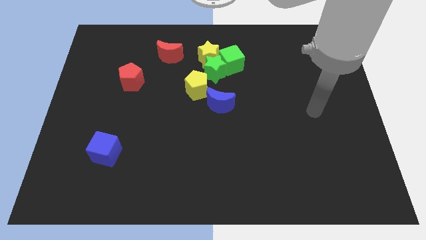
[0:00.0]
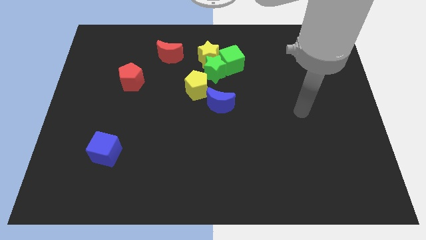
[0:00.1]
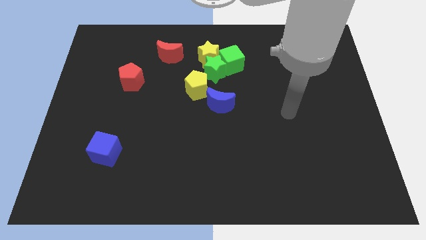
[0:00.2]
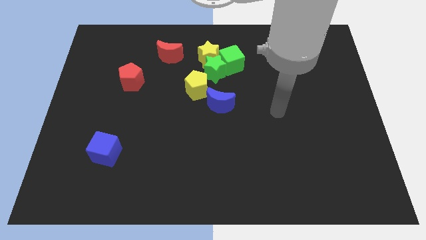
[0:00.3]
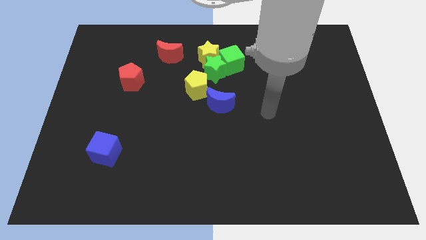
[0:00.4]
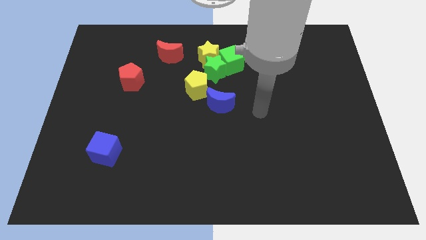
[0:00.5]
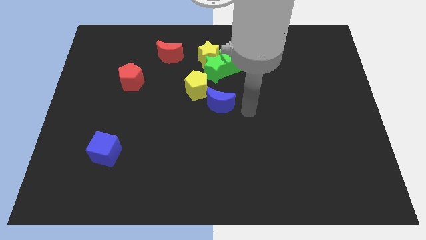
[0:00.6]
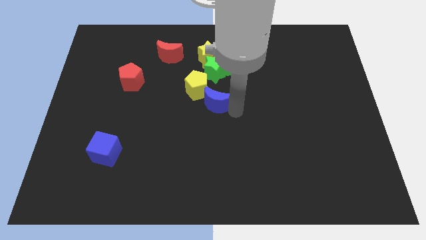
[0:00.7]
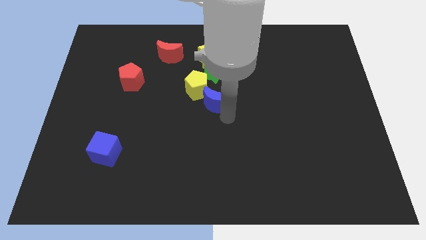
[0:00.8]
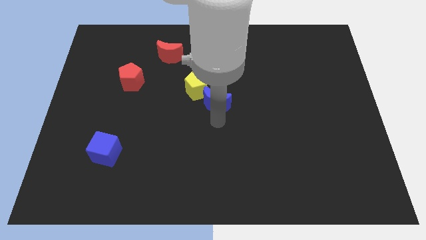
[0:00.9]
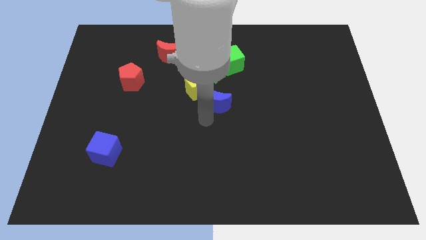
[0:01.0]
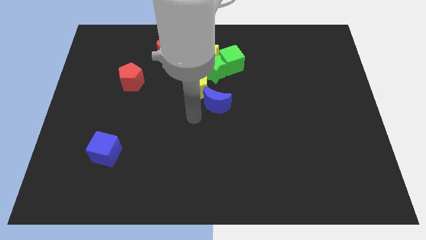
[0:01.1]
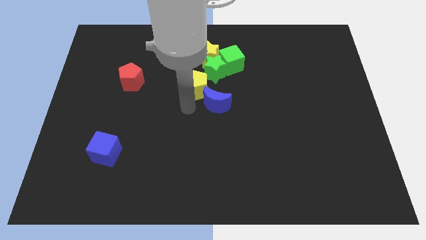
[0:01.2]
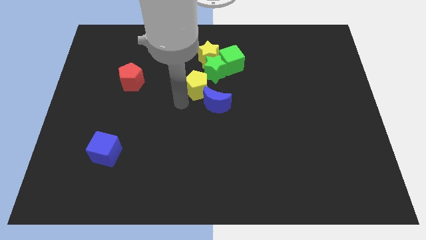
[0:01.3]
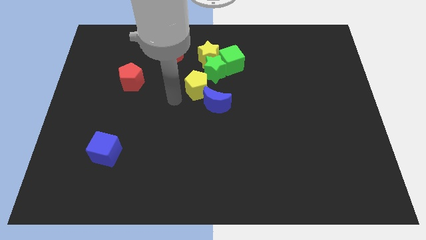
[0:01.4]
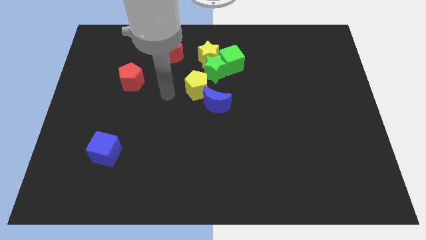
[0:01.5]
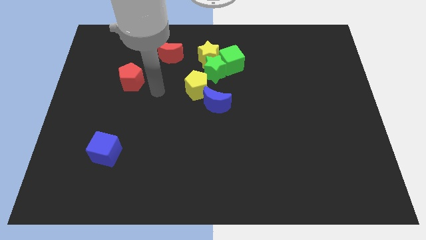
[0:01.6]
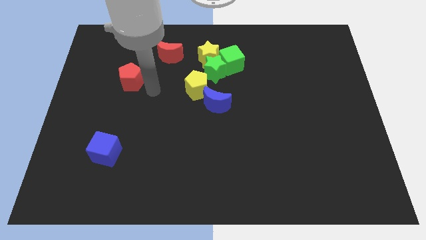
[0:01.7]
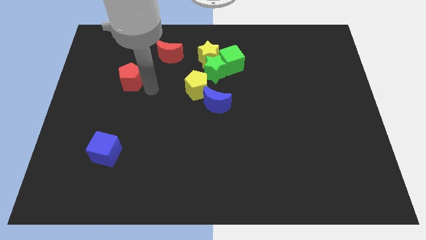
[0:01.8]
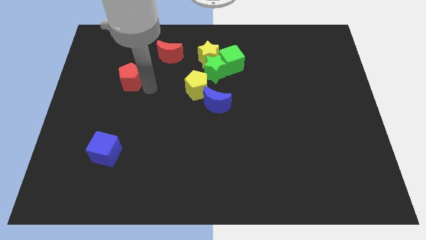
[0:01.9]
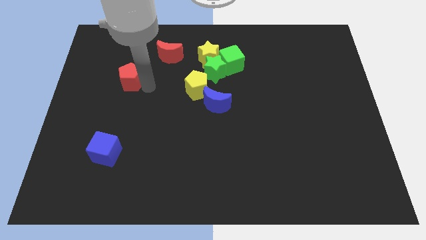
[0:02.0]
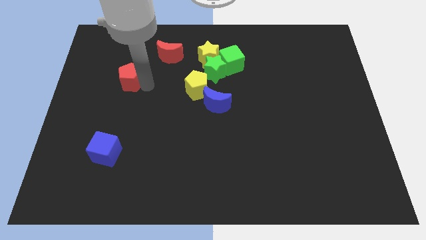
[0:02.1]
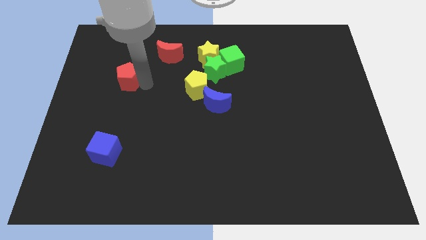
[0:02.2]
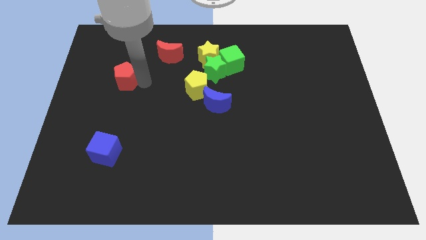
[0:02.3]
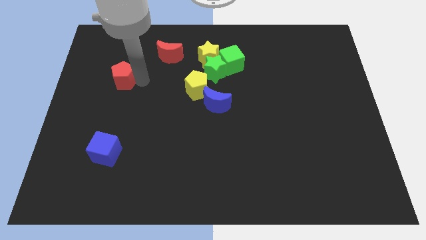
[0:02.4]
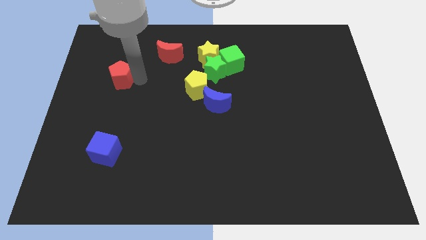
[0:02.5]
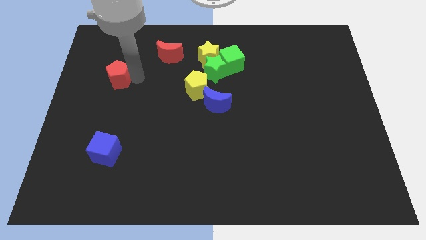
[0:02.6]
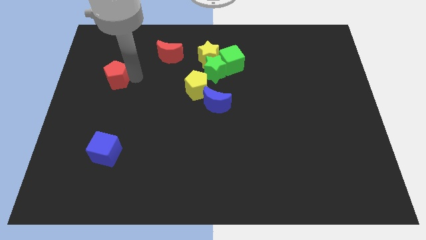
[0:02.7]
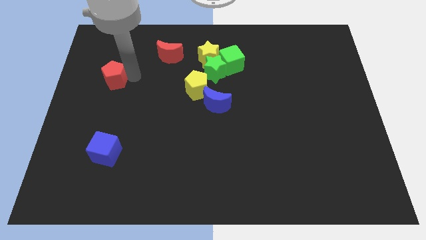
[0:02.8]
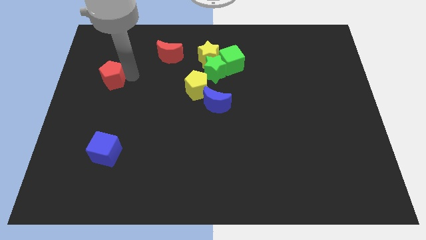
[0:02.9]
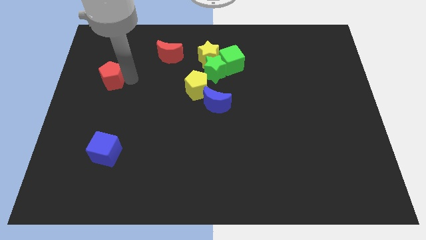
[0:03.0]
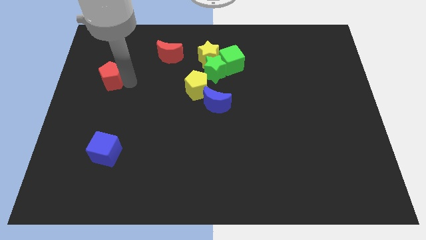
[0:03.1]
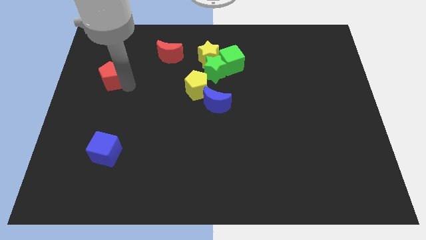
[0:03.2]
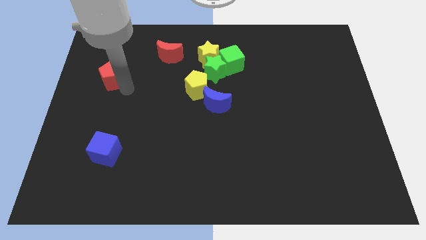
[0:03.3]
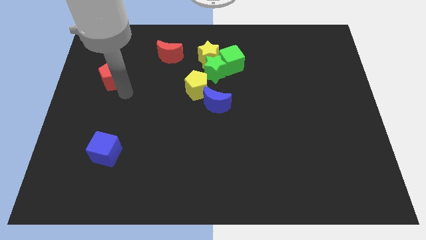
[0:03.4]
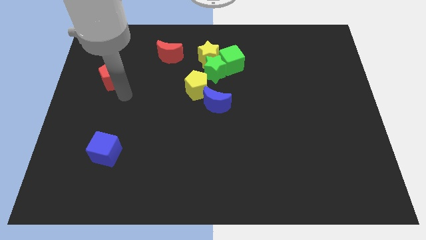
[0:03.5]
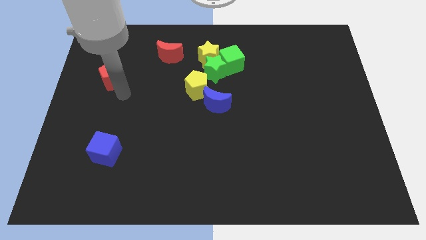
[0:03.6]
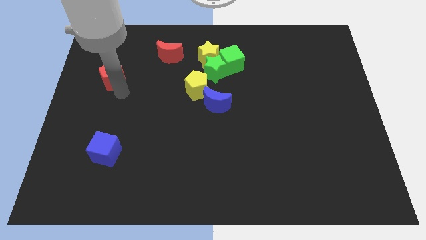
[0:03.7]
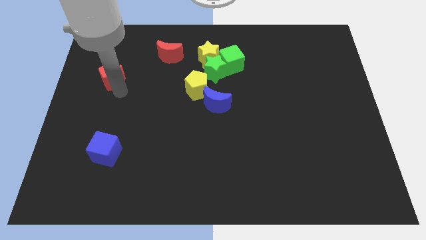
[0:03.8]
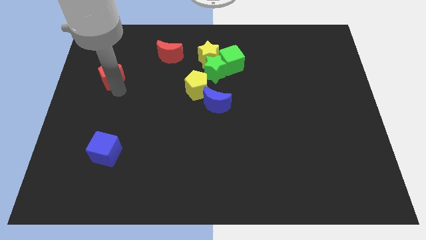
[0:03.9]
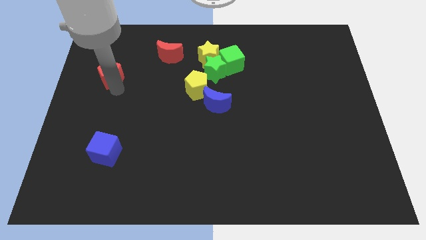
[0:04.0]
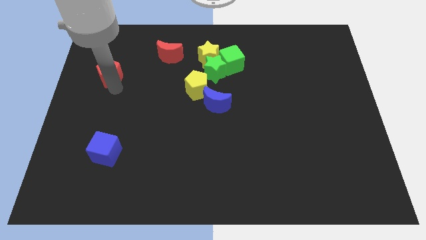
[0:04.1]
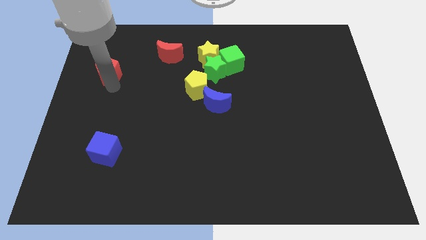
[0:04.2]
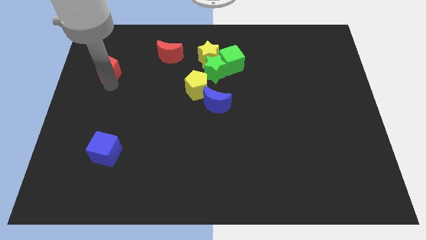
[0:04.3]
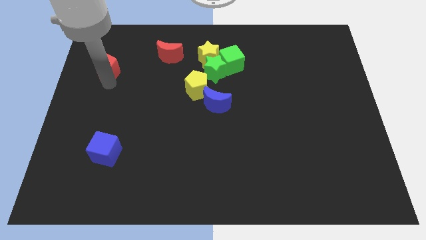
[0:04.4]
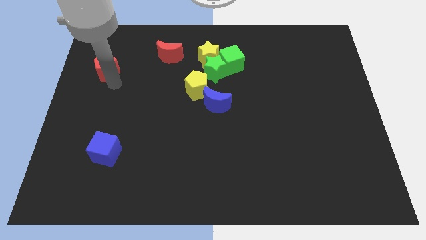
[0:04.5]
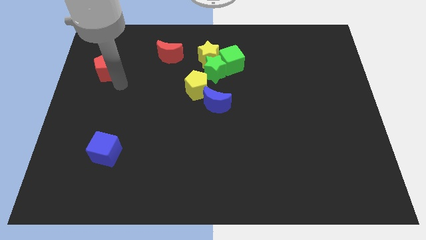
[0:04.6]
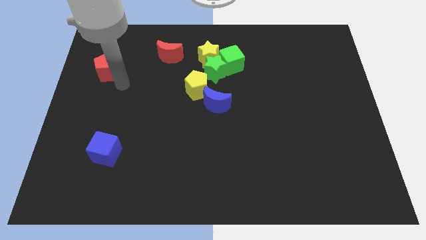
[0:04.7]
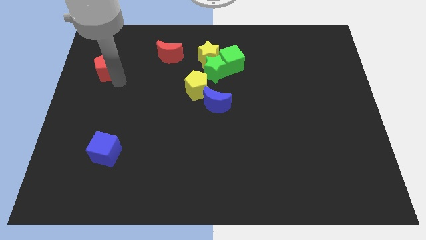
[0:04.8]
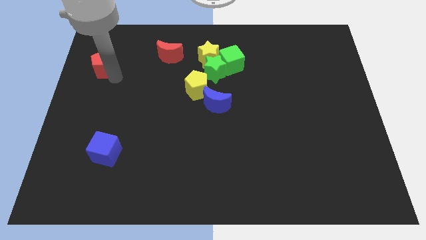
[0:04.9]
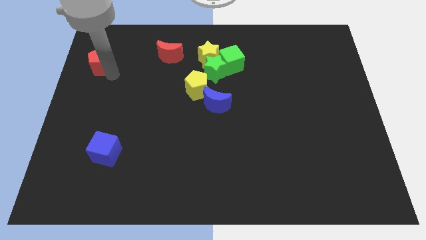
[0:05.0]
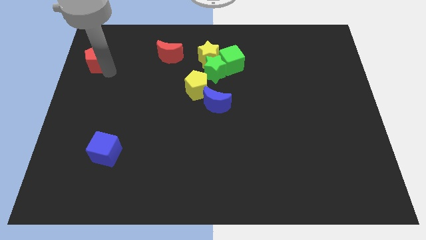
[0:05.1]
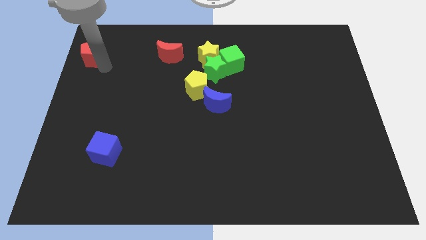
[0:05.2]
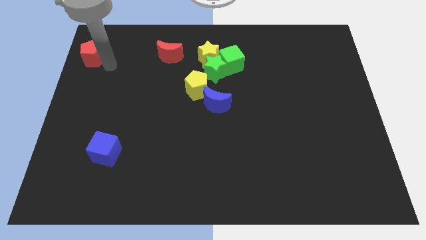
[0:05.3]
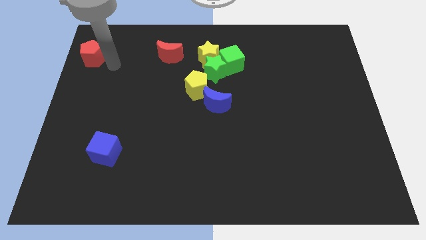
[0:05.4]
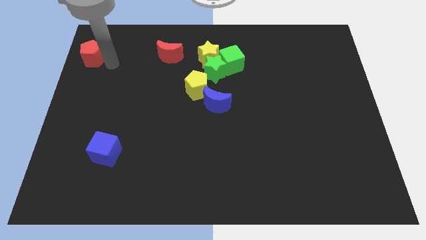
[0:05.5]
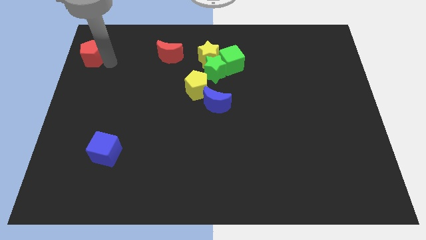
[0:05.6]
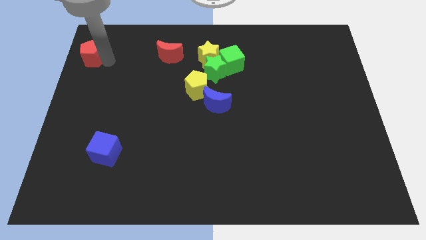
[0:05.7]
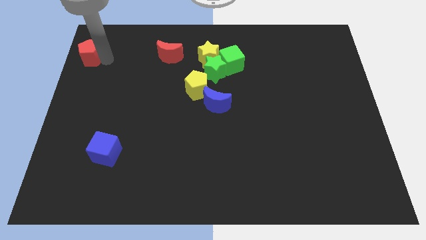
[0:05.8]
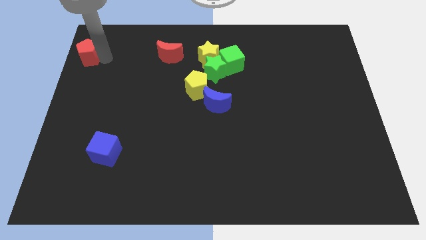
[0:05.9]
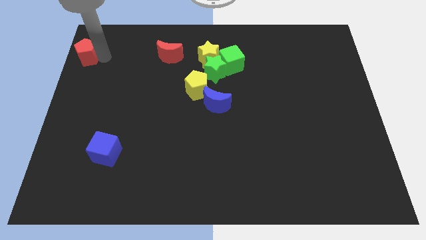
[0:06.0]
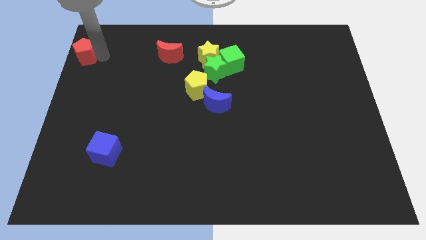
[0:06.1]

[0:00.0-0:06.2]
move the red pentagon to the top left of the board

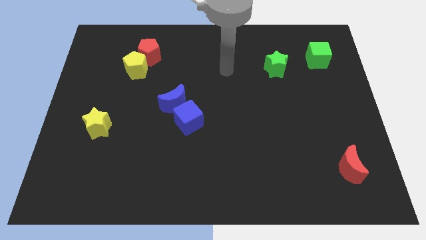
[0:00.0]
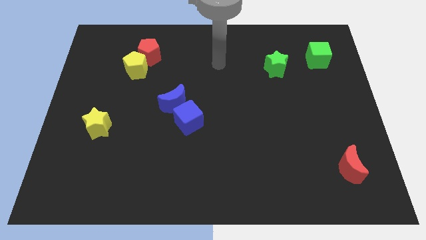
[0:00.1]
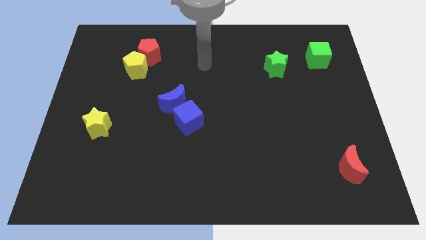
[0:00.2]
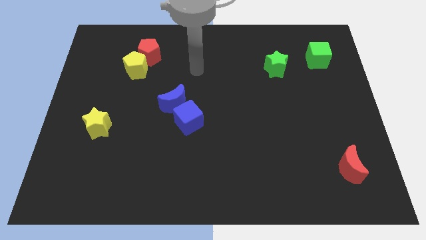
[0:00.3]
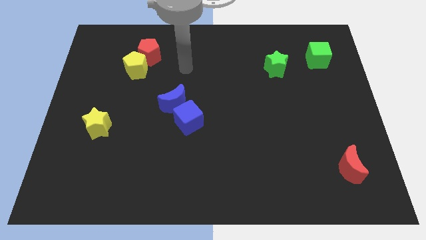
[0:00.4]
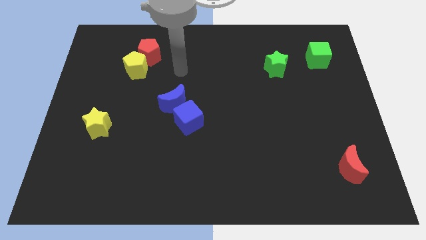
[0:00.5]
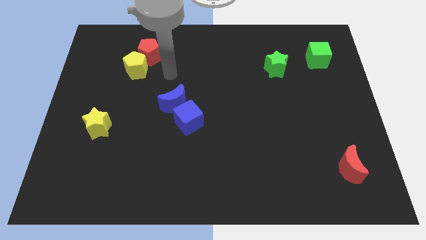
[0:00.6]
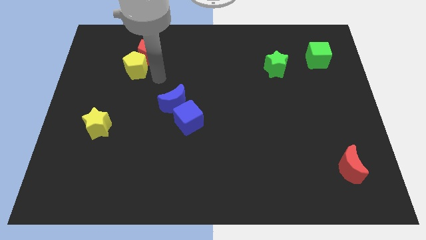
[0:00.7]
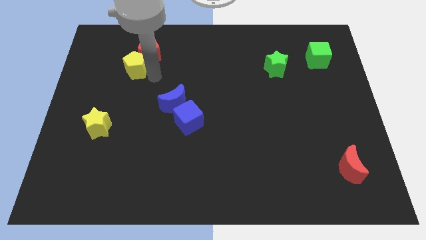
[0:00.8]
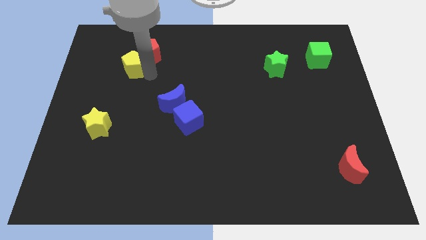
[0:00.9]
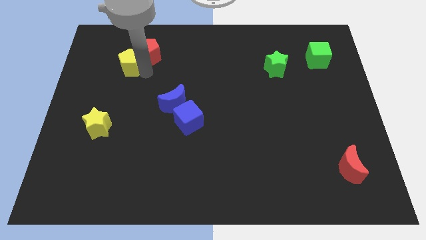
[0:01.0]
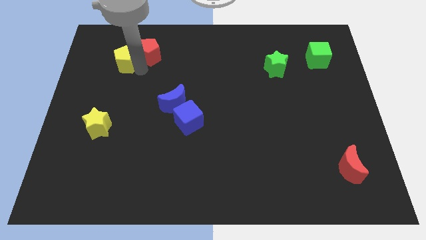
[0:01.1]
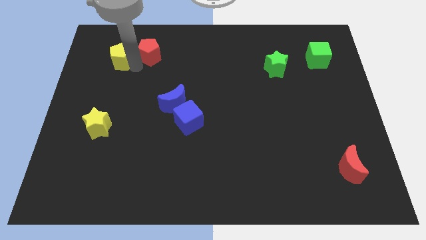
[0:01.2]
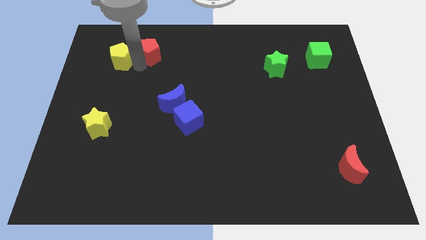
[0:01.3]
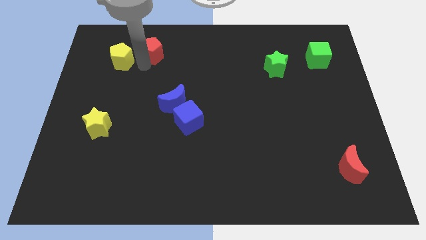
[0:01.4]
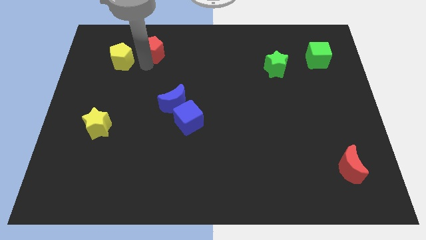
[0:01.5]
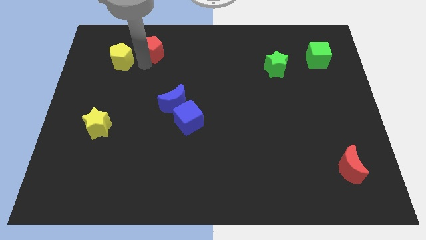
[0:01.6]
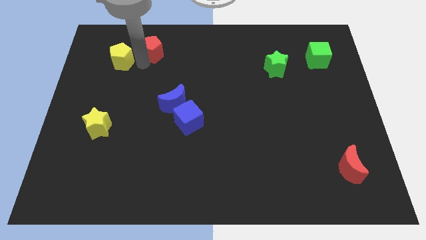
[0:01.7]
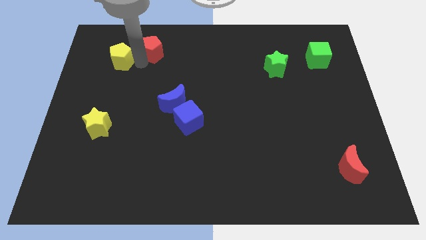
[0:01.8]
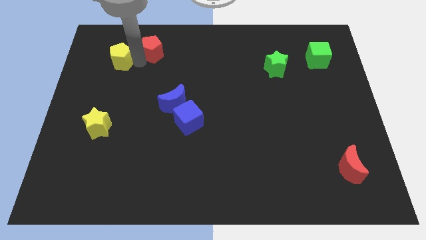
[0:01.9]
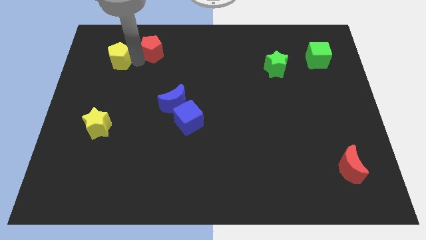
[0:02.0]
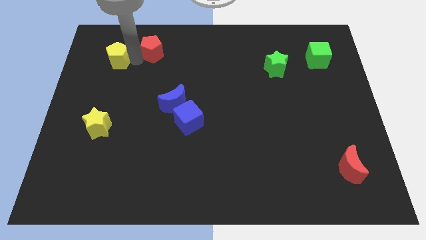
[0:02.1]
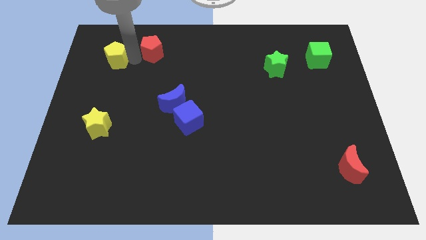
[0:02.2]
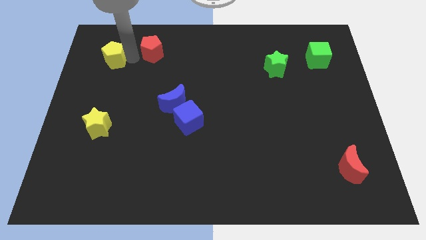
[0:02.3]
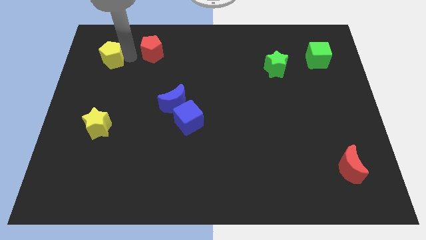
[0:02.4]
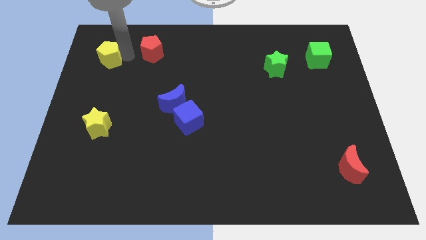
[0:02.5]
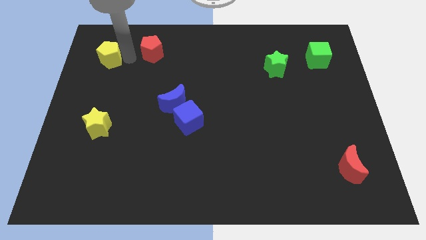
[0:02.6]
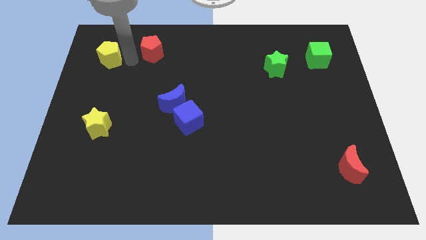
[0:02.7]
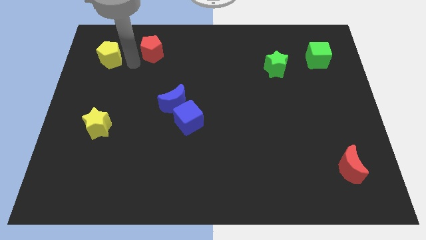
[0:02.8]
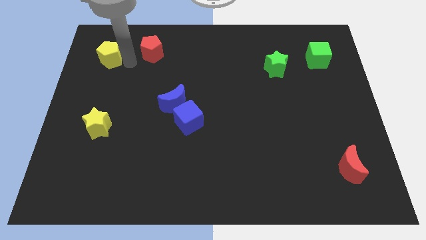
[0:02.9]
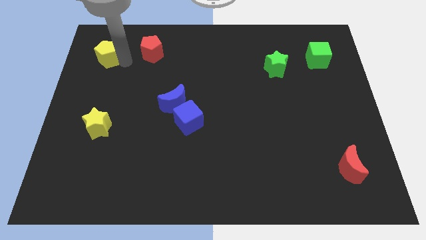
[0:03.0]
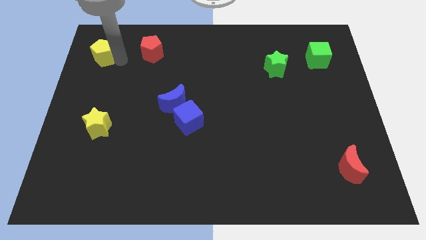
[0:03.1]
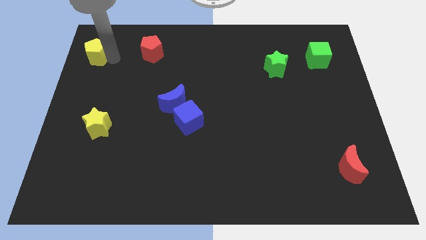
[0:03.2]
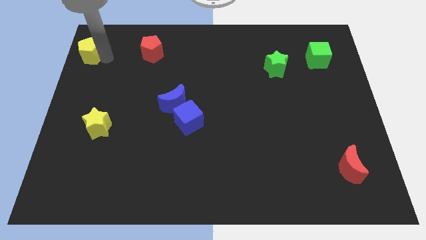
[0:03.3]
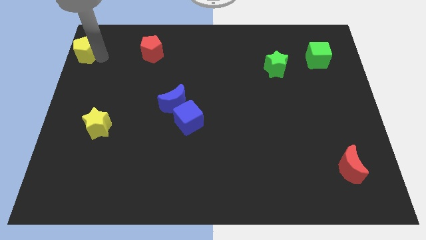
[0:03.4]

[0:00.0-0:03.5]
slide the yellow pentagon to the top left
